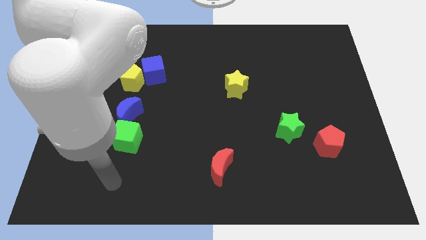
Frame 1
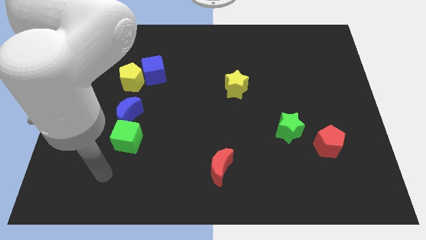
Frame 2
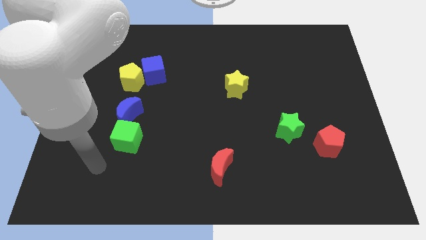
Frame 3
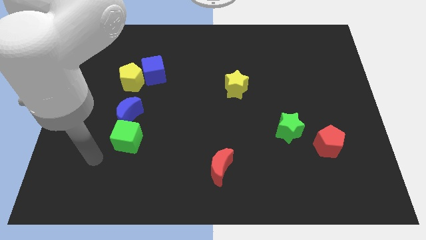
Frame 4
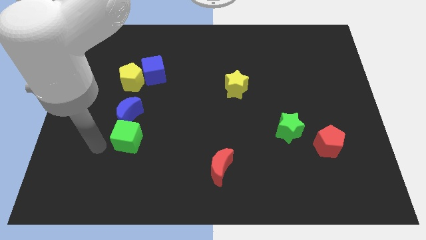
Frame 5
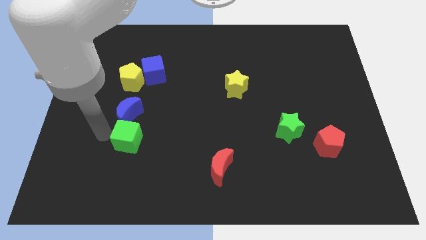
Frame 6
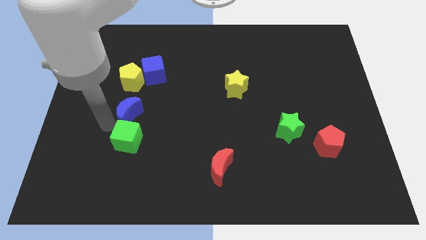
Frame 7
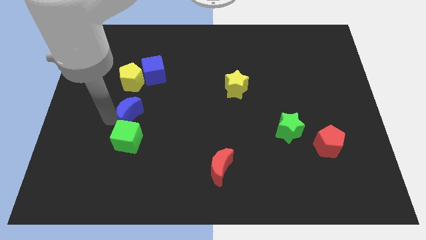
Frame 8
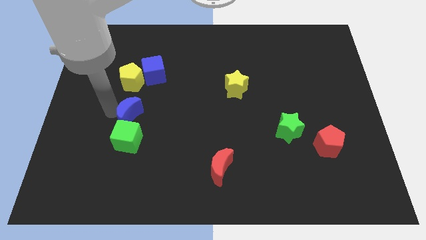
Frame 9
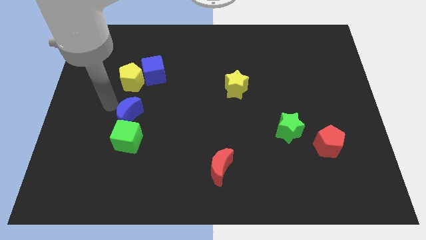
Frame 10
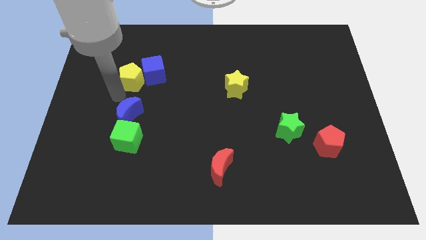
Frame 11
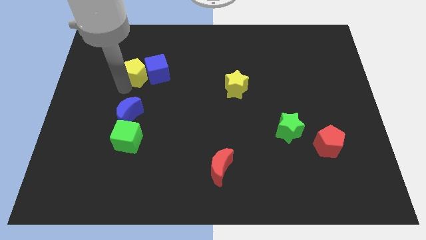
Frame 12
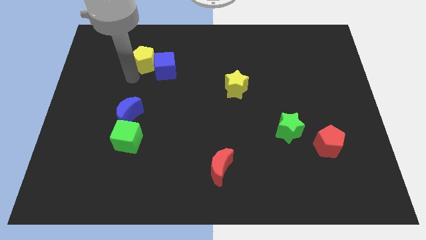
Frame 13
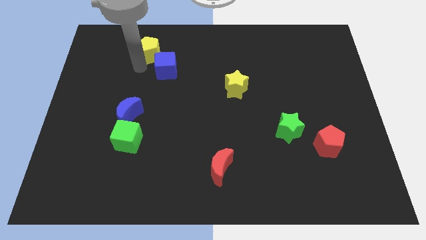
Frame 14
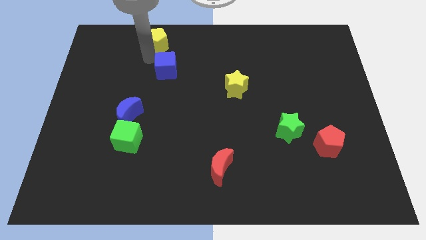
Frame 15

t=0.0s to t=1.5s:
move the blue cube away from the yellow pentagon

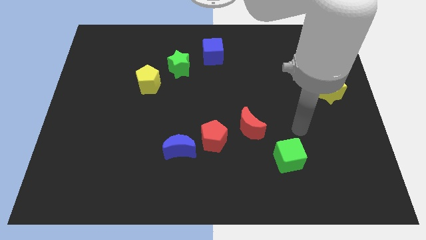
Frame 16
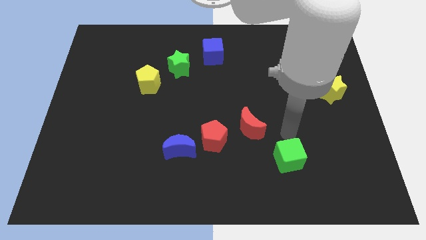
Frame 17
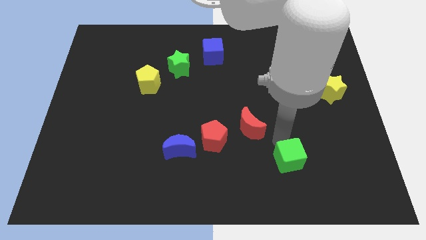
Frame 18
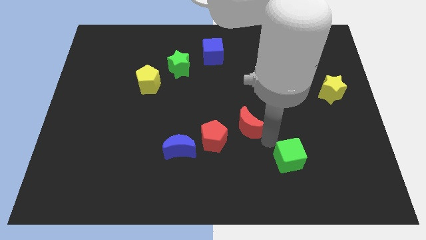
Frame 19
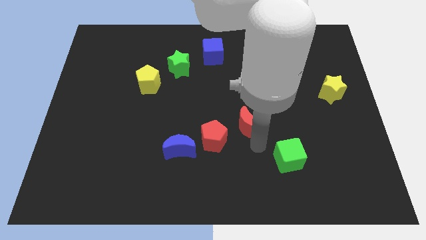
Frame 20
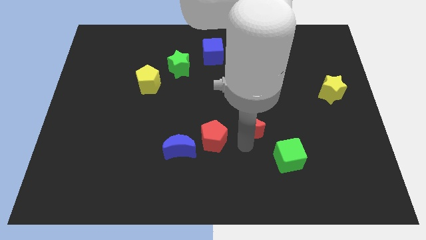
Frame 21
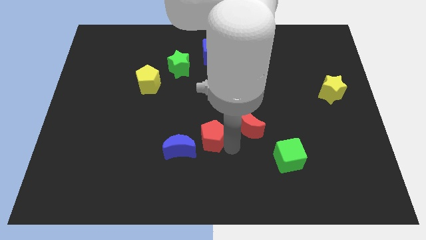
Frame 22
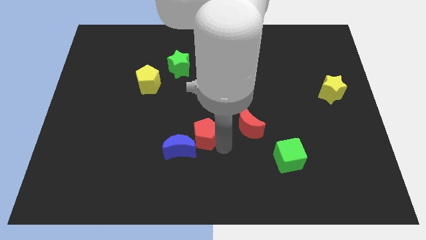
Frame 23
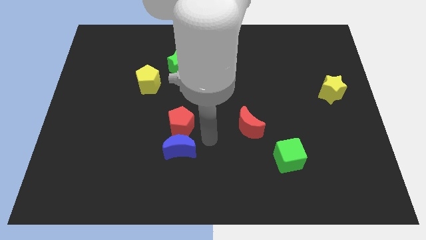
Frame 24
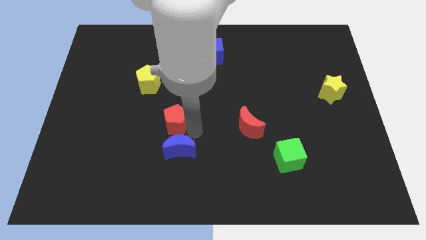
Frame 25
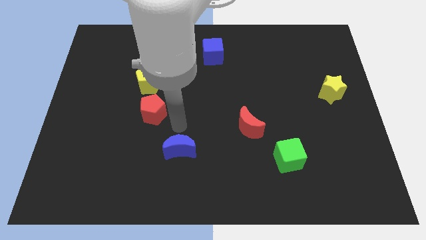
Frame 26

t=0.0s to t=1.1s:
pull the blue moon apart from the red pentagon

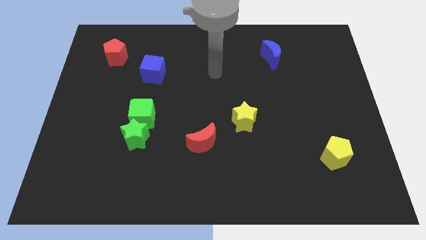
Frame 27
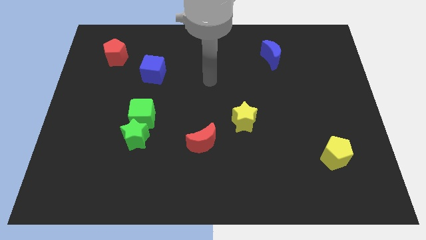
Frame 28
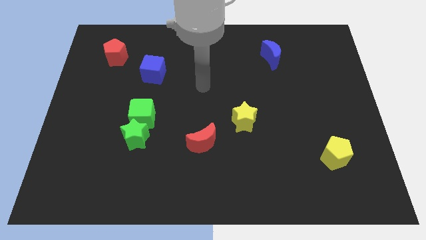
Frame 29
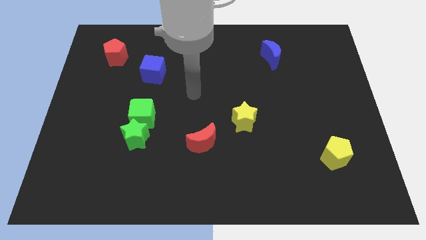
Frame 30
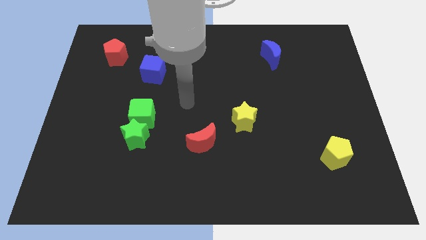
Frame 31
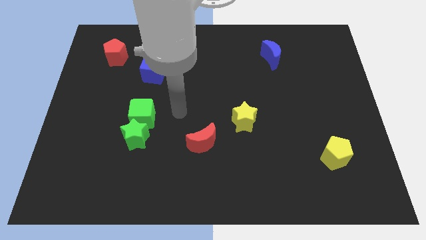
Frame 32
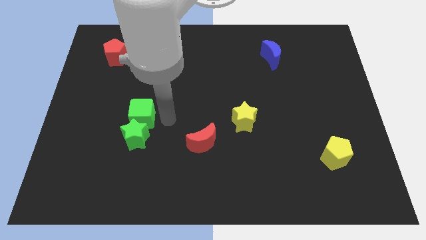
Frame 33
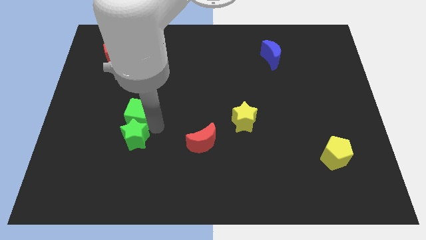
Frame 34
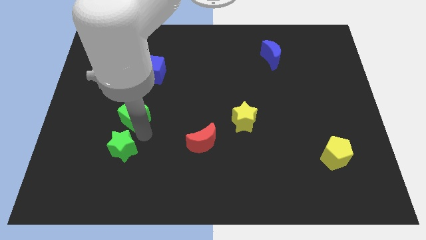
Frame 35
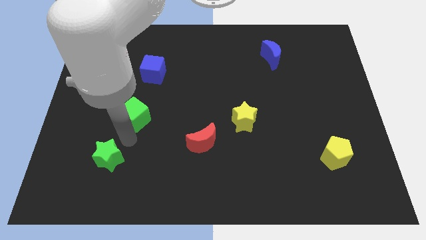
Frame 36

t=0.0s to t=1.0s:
separate the green cube from the green star

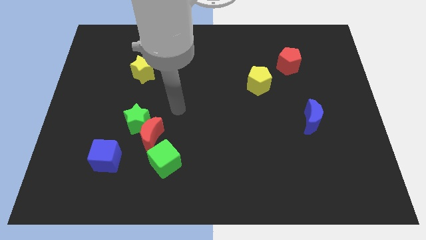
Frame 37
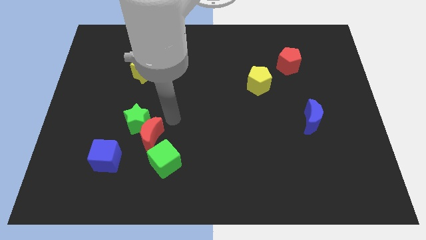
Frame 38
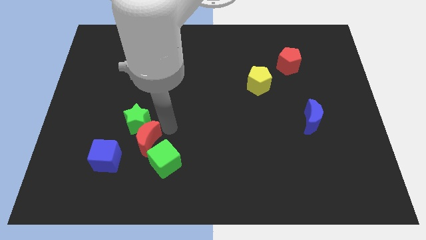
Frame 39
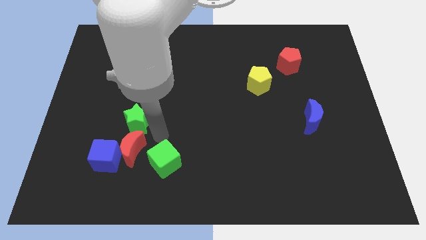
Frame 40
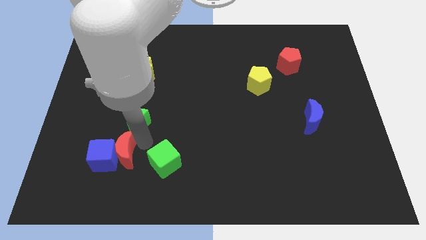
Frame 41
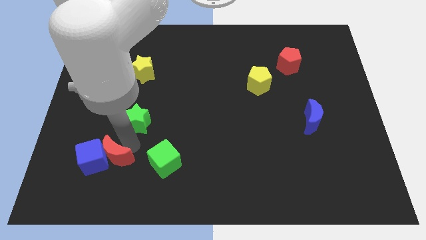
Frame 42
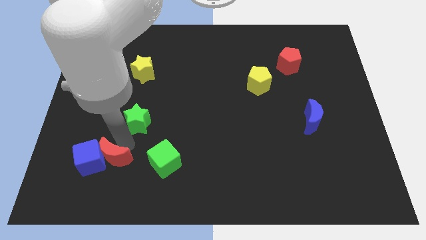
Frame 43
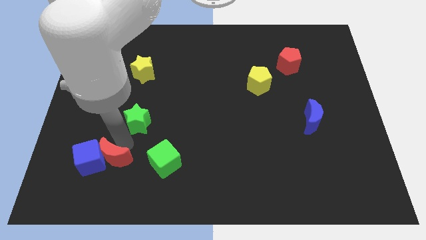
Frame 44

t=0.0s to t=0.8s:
pull the green star apart from the red moon

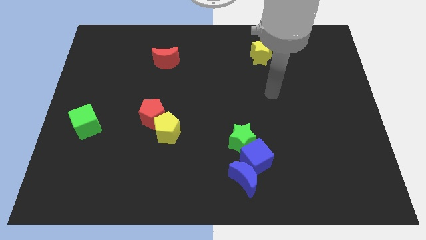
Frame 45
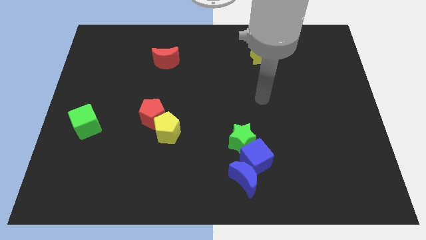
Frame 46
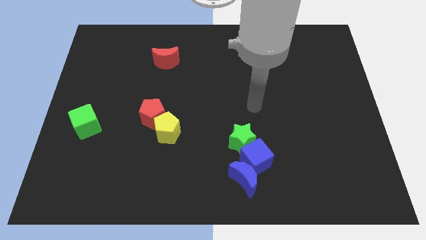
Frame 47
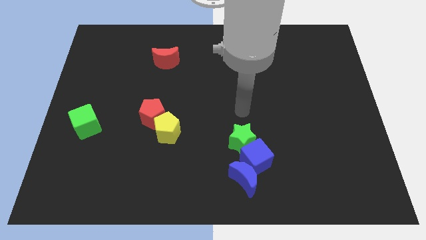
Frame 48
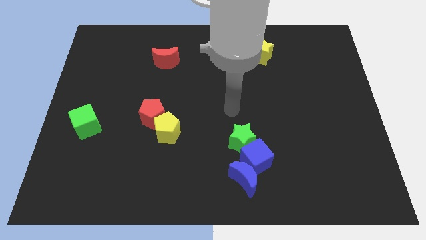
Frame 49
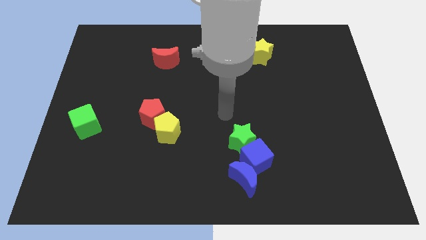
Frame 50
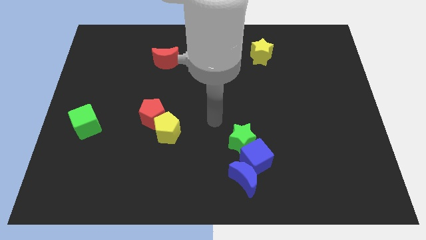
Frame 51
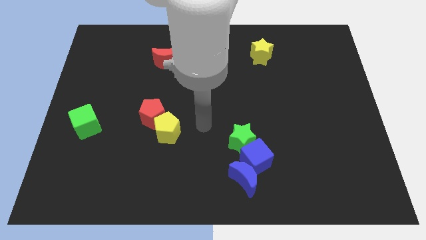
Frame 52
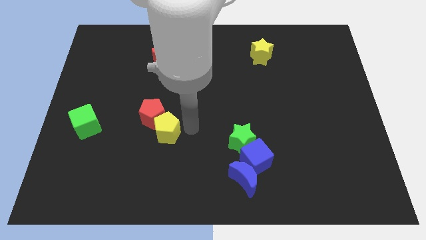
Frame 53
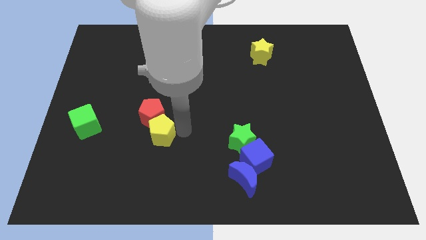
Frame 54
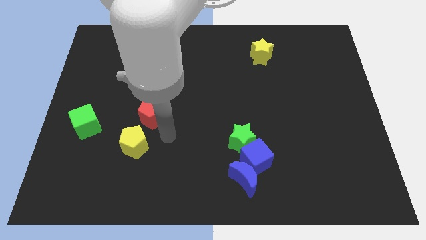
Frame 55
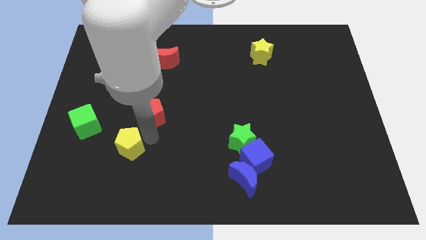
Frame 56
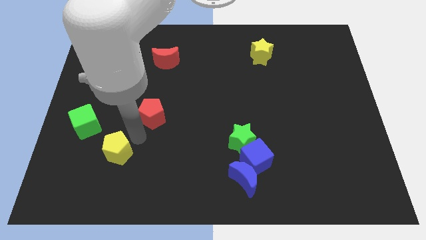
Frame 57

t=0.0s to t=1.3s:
pull the red pentagon apart from the yellow pentagon

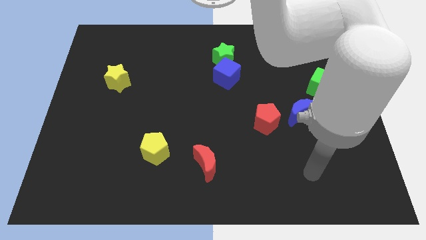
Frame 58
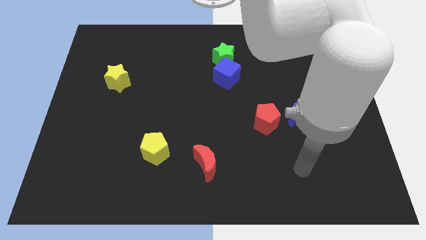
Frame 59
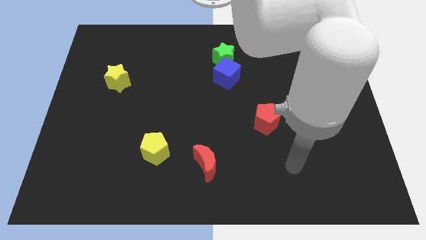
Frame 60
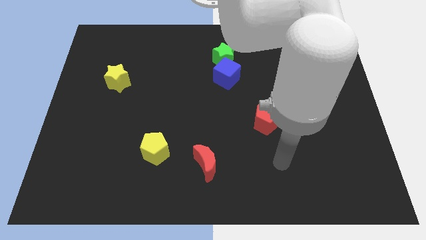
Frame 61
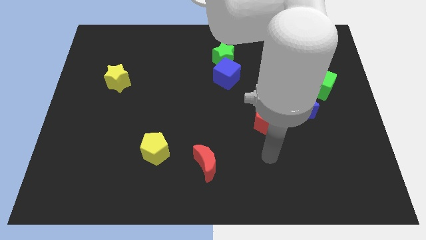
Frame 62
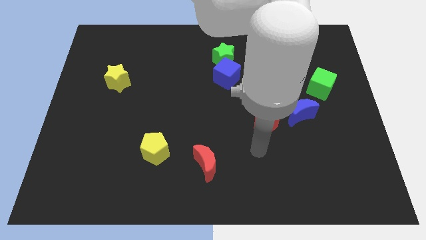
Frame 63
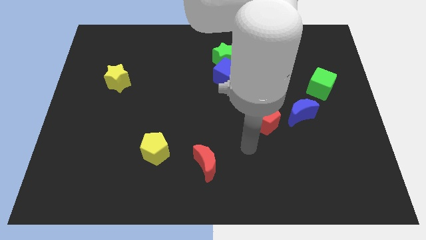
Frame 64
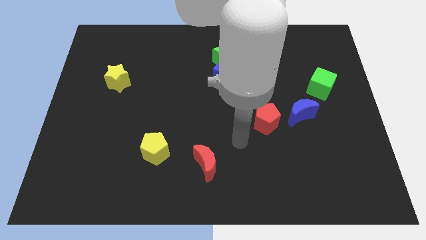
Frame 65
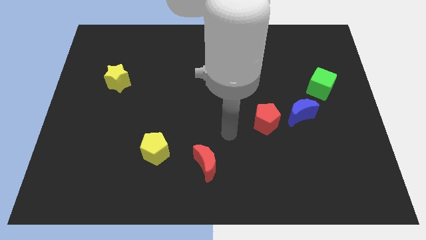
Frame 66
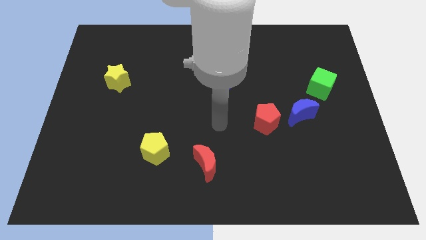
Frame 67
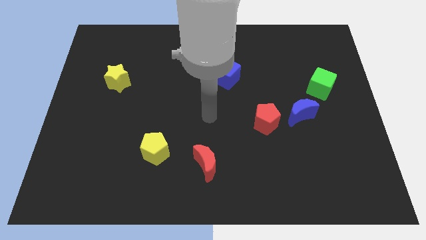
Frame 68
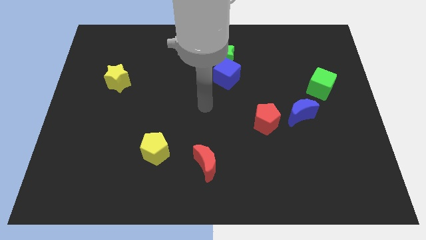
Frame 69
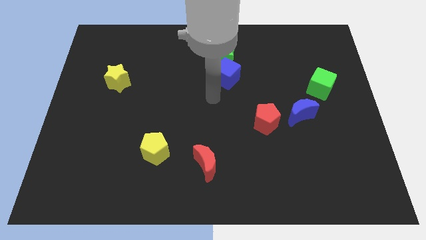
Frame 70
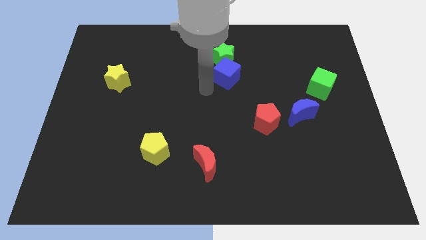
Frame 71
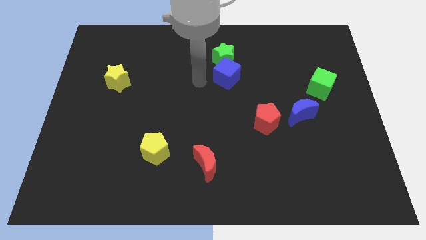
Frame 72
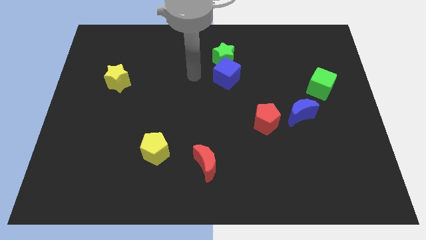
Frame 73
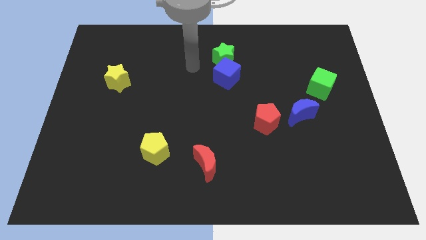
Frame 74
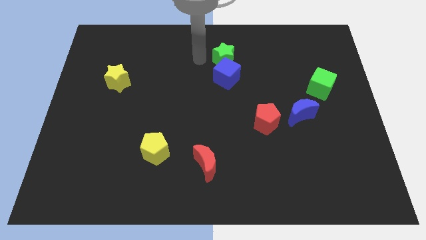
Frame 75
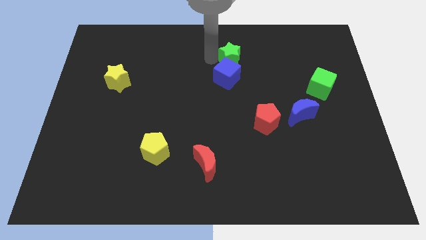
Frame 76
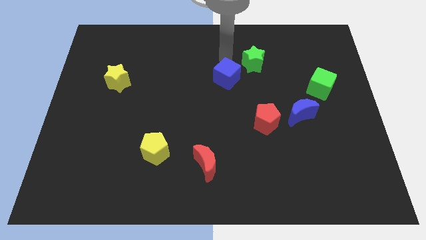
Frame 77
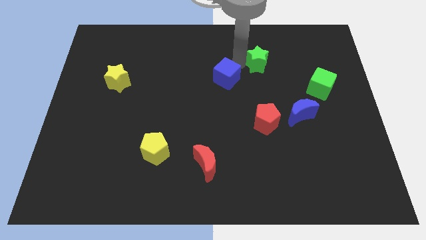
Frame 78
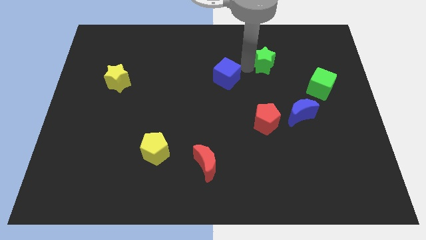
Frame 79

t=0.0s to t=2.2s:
pull the blue cube apart from the green star

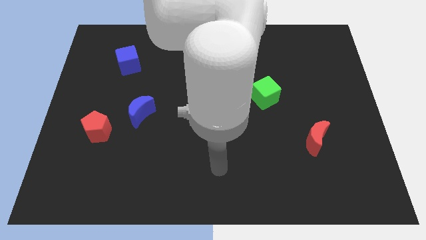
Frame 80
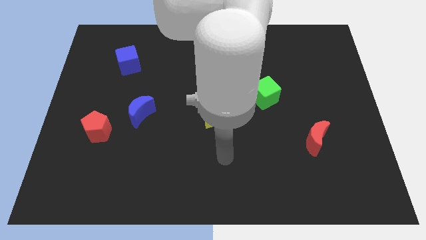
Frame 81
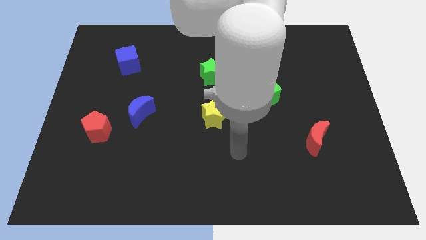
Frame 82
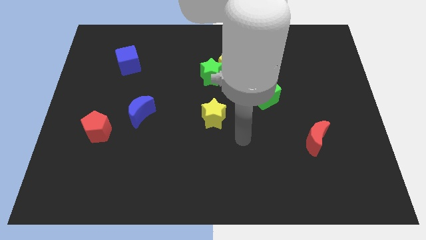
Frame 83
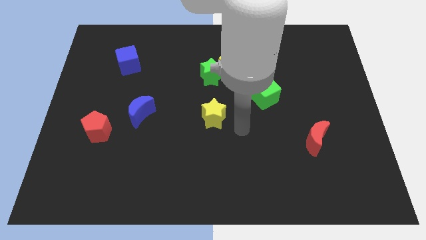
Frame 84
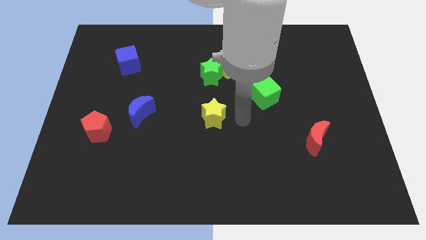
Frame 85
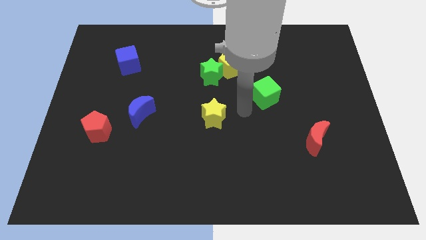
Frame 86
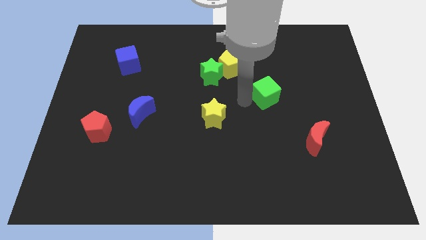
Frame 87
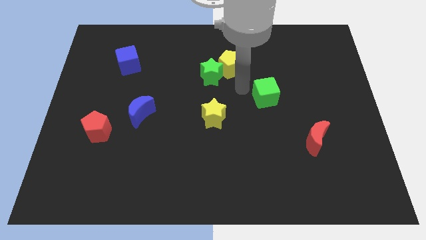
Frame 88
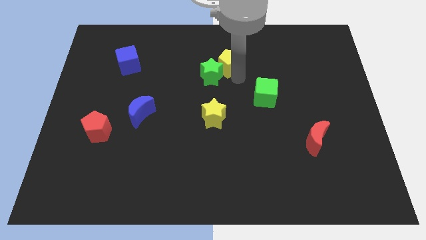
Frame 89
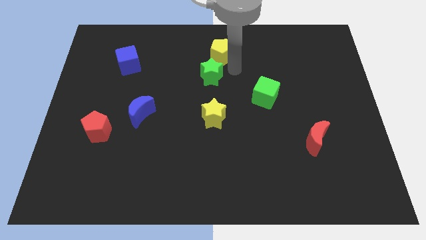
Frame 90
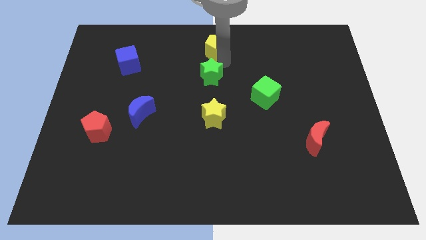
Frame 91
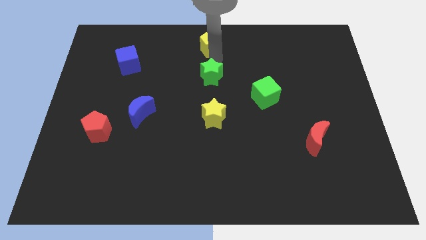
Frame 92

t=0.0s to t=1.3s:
pull the green star apart from the yellow pentagon

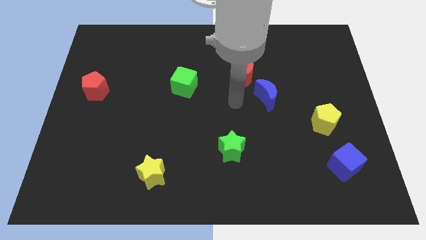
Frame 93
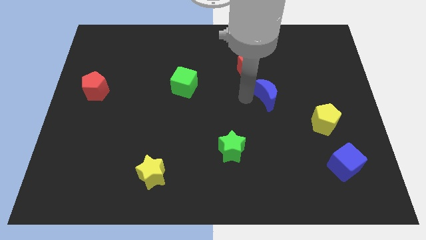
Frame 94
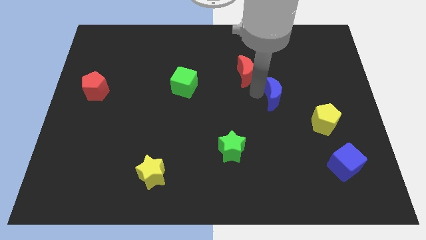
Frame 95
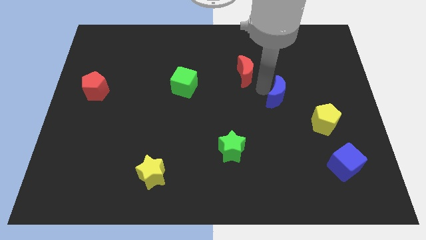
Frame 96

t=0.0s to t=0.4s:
move the red moon away from the blue moon
